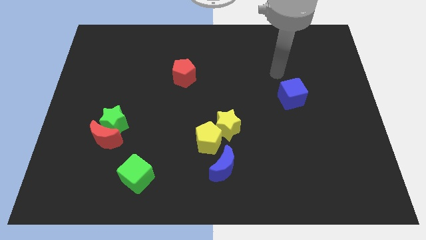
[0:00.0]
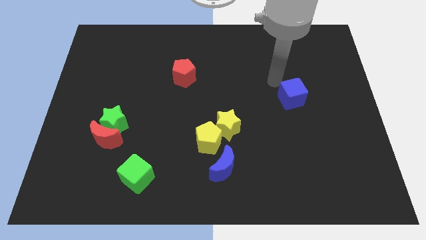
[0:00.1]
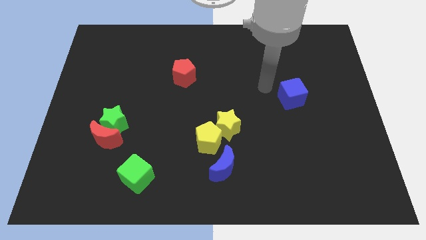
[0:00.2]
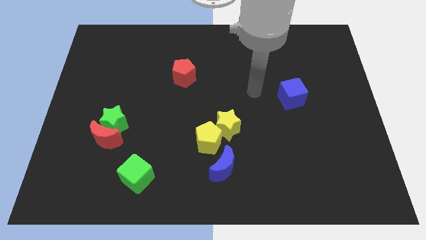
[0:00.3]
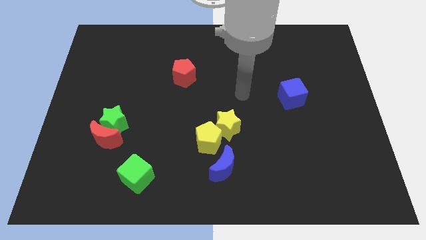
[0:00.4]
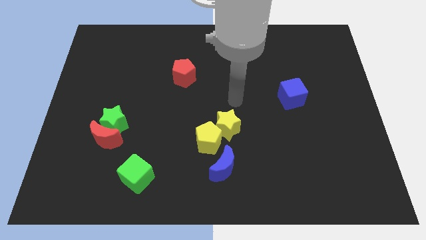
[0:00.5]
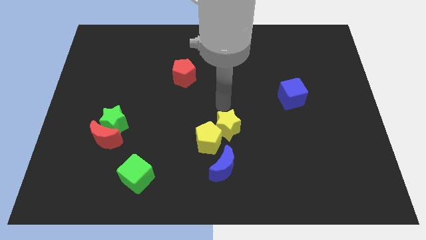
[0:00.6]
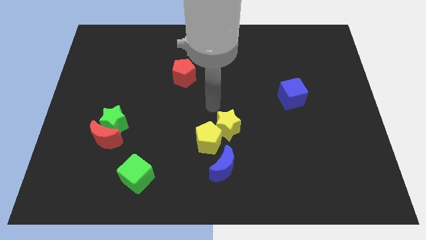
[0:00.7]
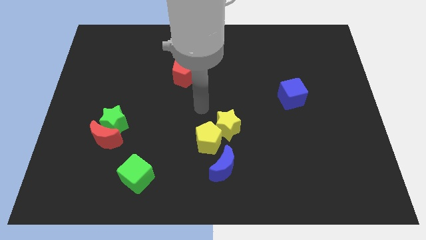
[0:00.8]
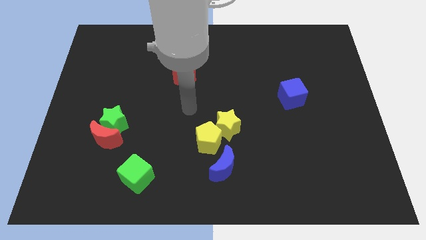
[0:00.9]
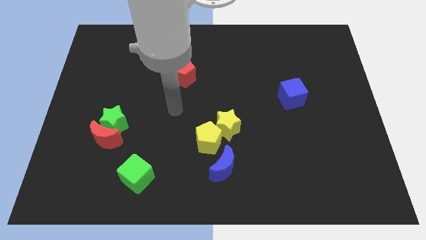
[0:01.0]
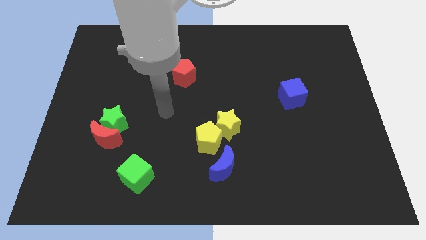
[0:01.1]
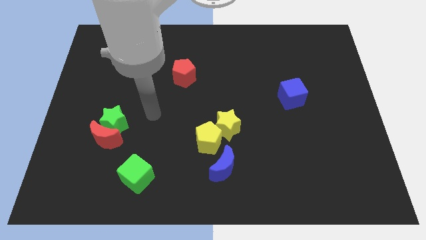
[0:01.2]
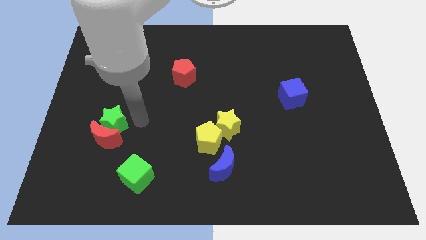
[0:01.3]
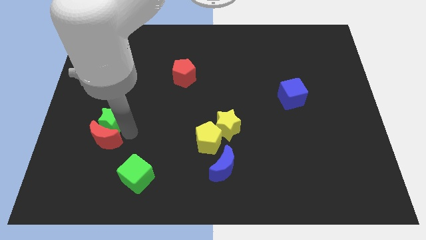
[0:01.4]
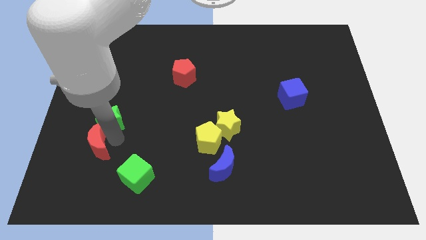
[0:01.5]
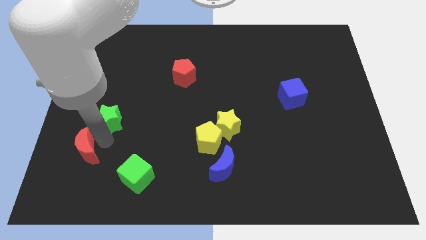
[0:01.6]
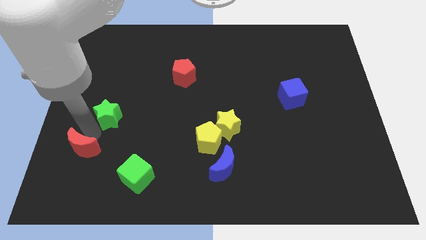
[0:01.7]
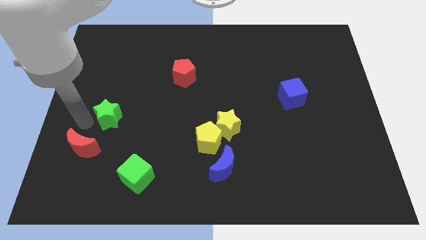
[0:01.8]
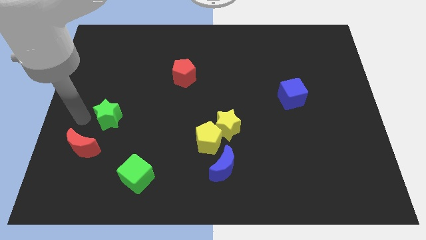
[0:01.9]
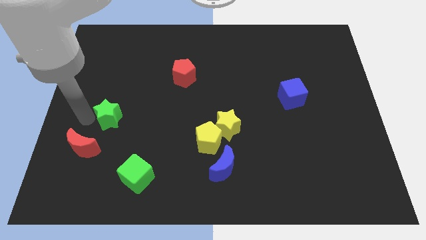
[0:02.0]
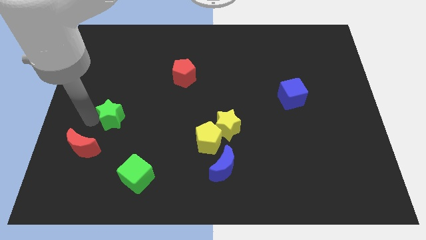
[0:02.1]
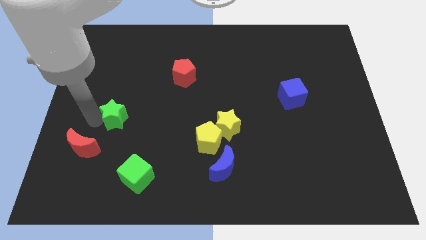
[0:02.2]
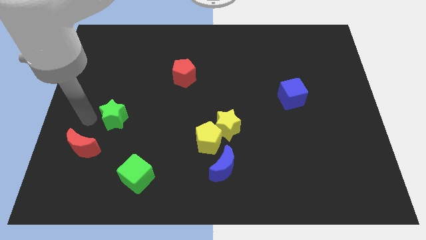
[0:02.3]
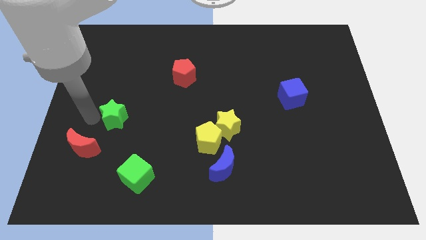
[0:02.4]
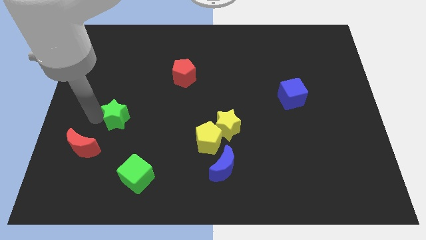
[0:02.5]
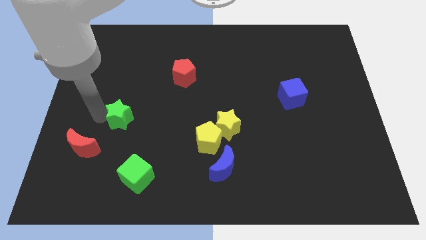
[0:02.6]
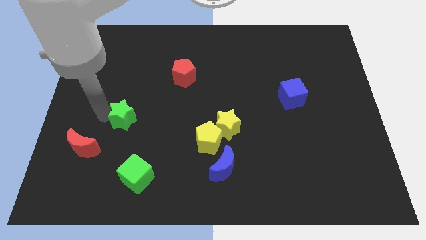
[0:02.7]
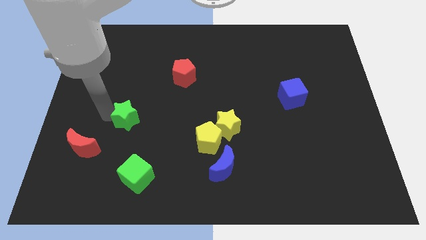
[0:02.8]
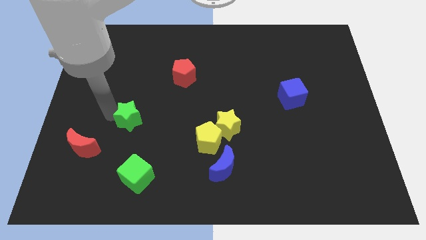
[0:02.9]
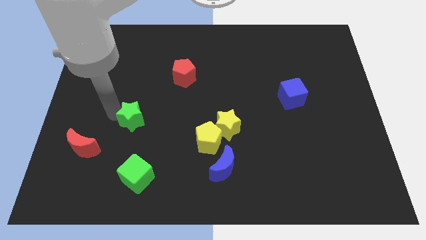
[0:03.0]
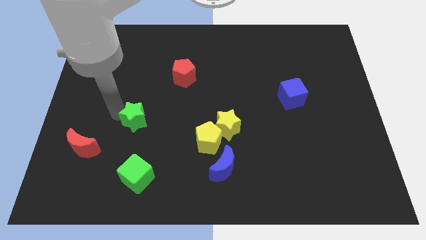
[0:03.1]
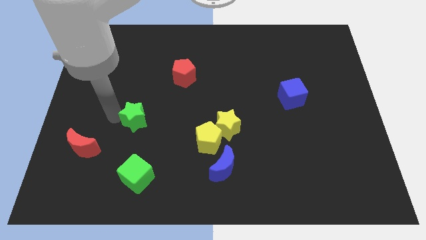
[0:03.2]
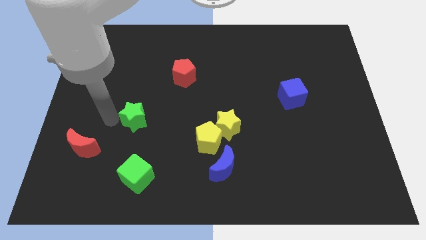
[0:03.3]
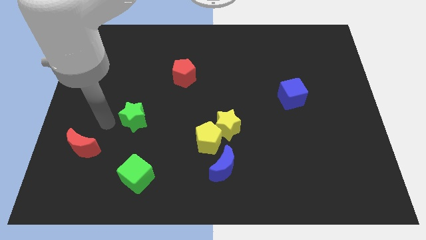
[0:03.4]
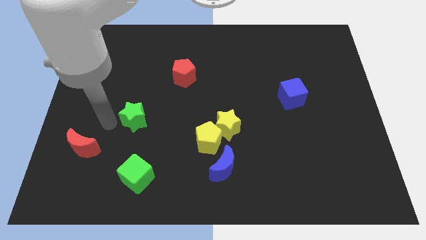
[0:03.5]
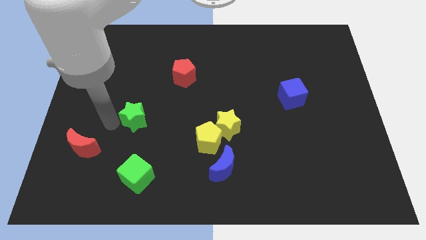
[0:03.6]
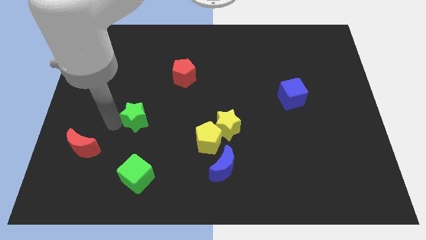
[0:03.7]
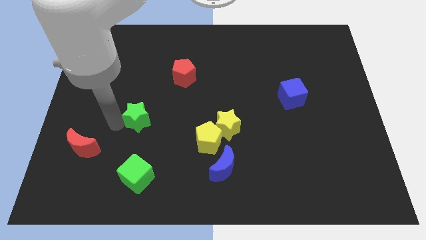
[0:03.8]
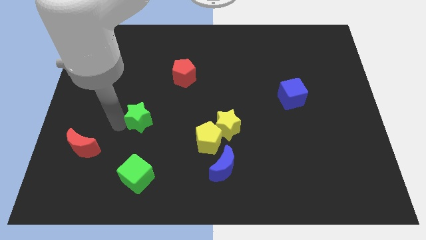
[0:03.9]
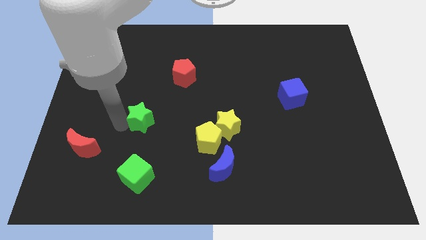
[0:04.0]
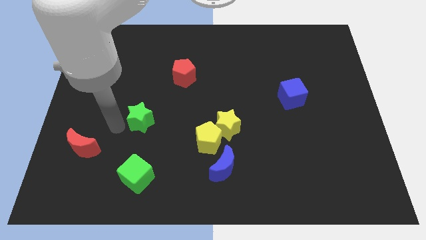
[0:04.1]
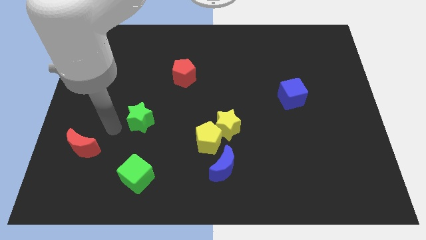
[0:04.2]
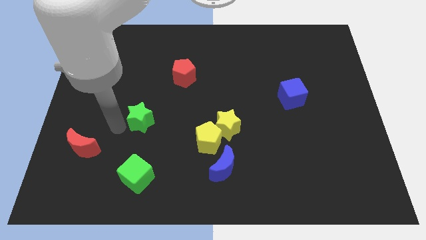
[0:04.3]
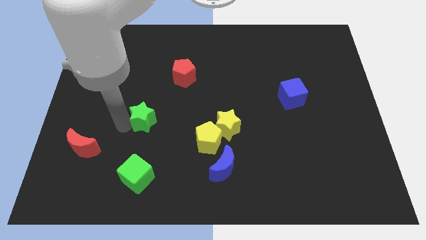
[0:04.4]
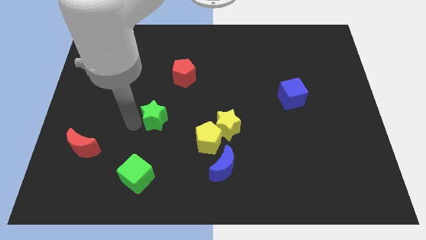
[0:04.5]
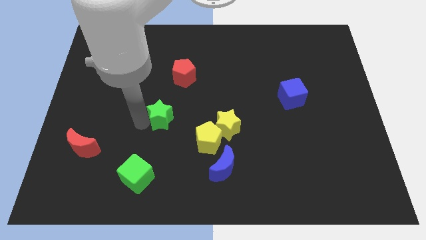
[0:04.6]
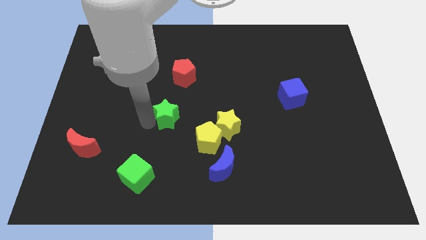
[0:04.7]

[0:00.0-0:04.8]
move the green star to the center of the board

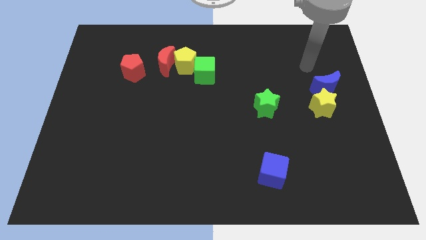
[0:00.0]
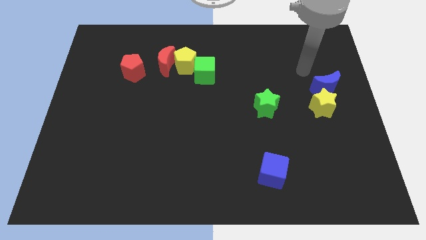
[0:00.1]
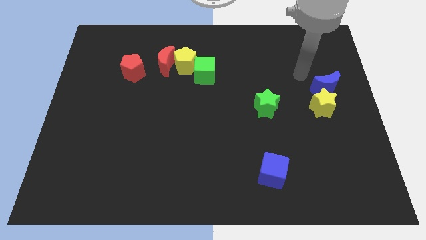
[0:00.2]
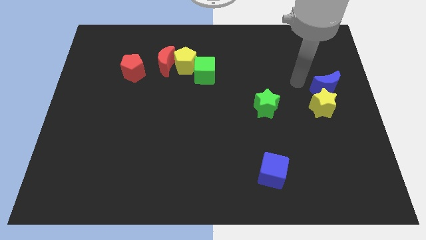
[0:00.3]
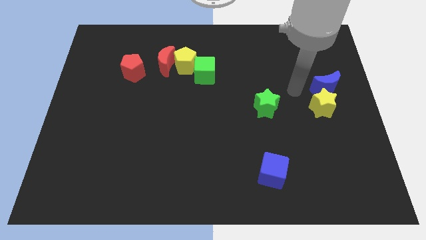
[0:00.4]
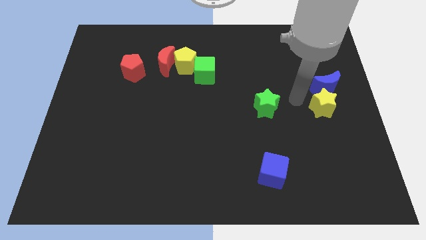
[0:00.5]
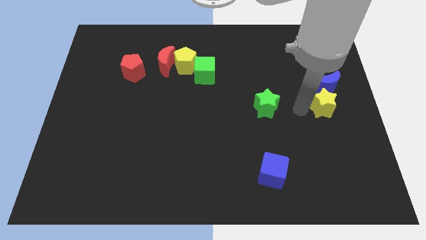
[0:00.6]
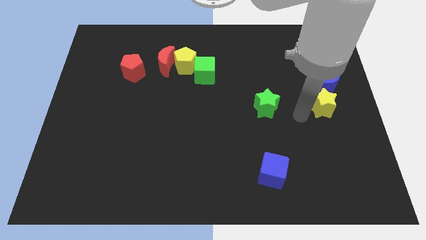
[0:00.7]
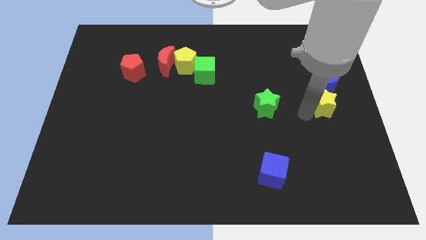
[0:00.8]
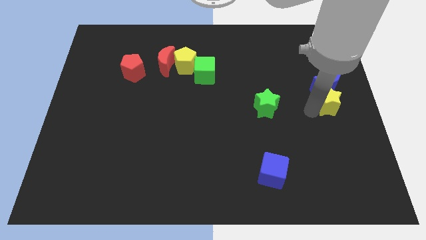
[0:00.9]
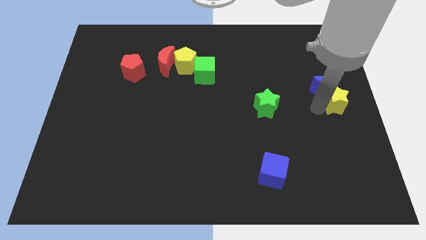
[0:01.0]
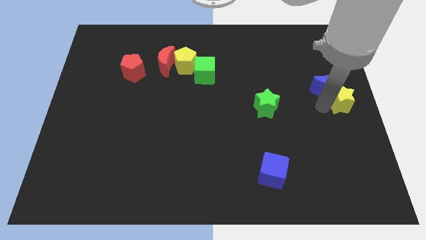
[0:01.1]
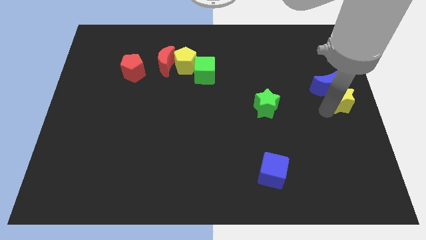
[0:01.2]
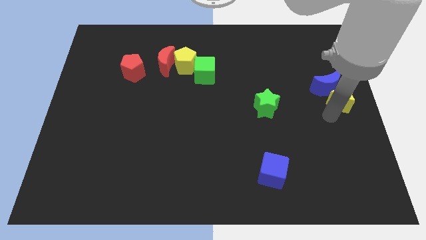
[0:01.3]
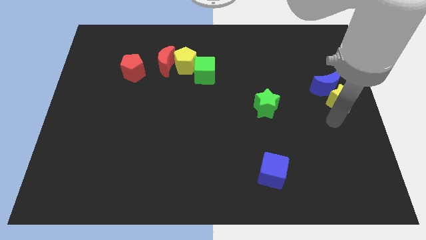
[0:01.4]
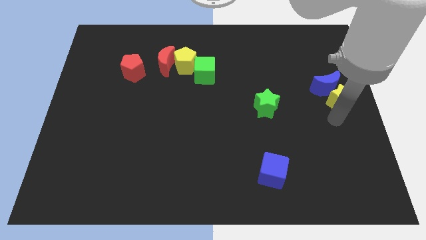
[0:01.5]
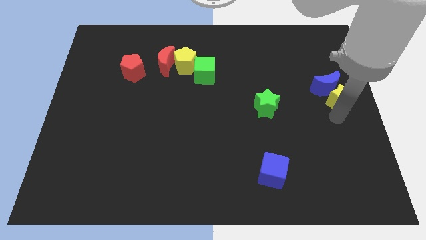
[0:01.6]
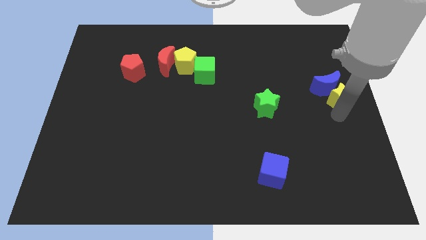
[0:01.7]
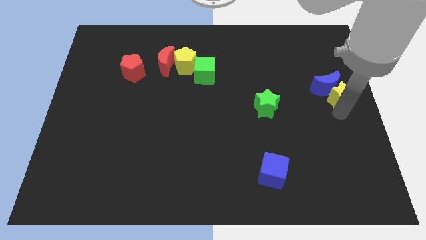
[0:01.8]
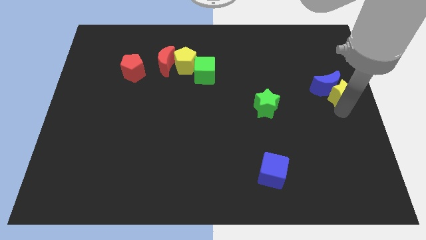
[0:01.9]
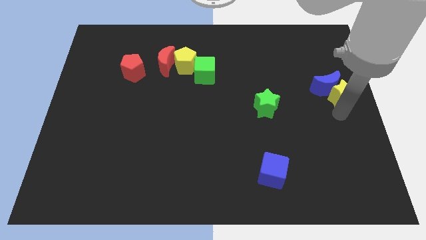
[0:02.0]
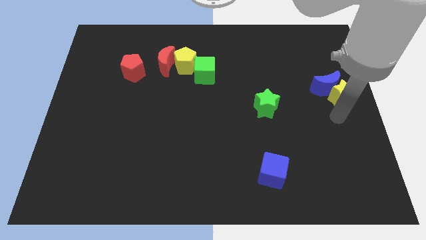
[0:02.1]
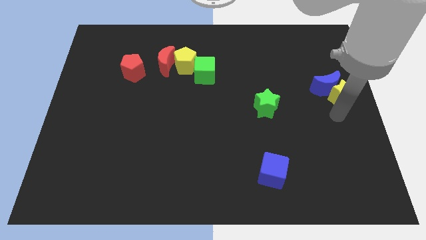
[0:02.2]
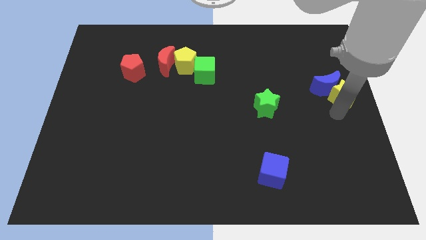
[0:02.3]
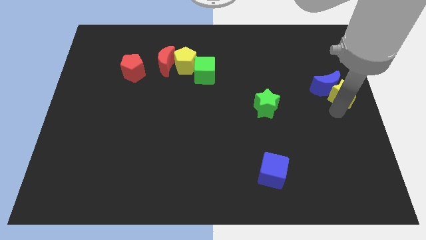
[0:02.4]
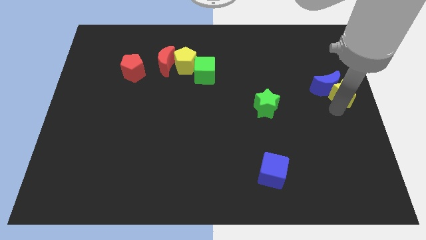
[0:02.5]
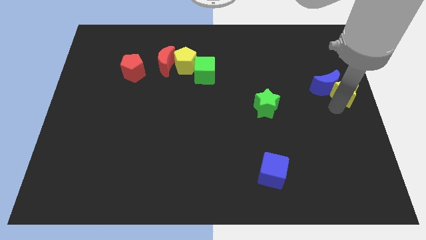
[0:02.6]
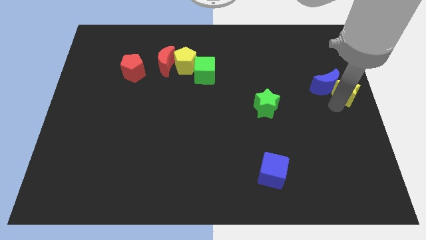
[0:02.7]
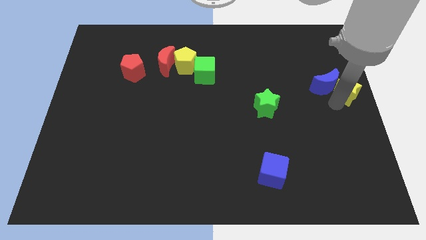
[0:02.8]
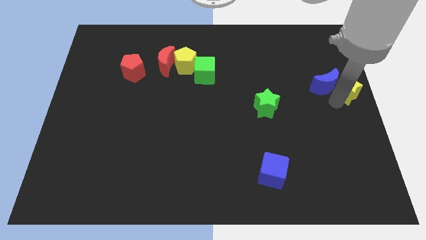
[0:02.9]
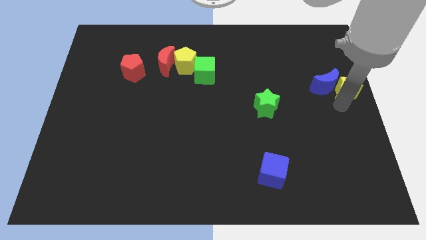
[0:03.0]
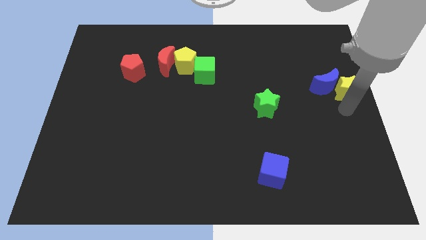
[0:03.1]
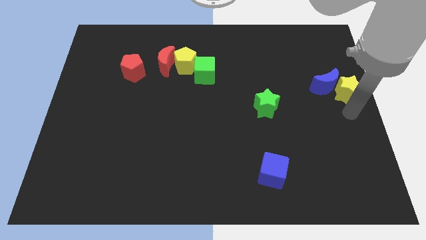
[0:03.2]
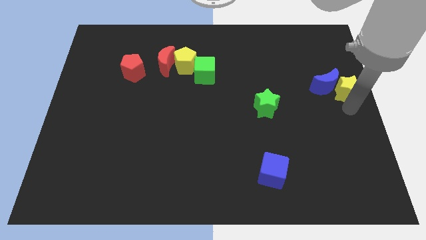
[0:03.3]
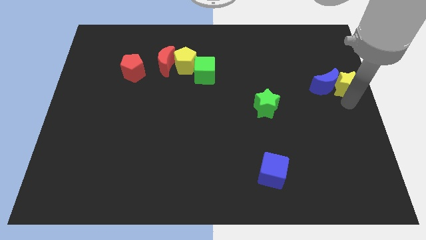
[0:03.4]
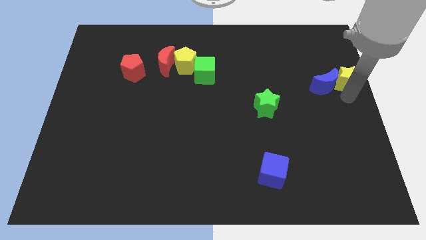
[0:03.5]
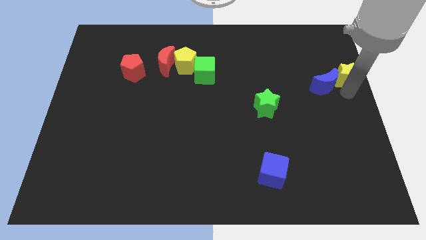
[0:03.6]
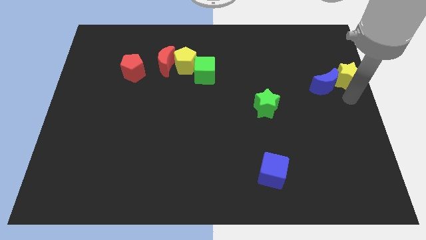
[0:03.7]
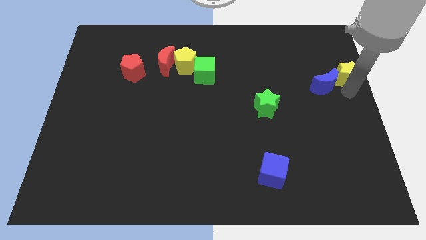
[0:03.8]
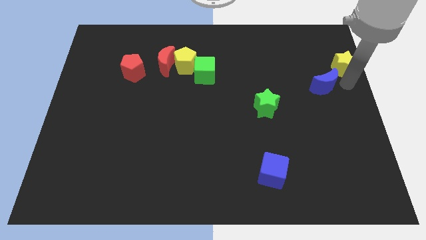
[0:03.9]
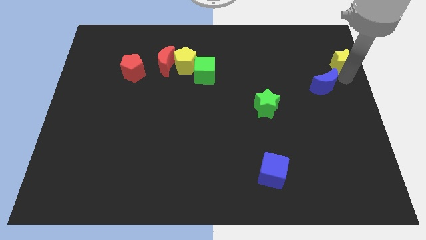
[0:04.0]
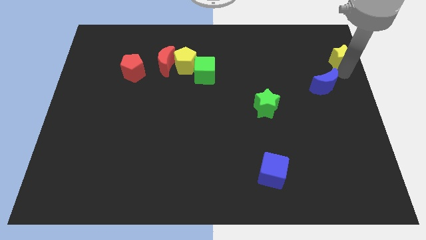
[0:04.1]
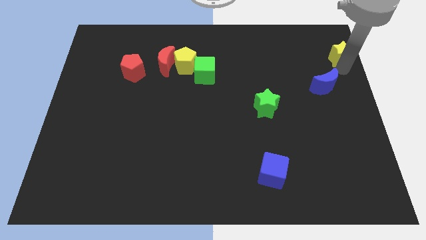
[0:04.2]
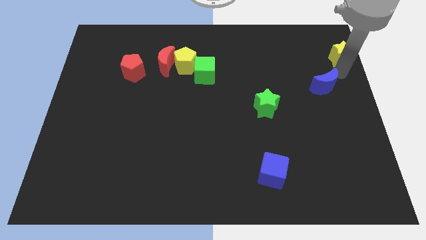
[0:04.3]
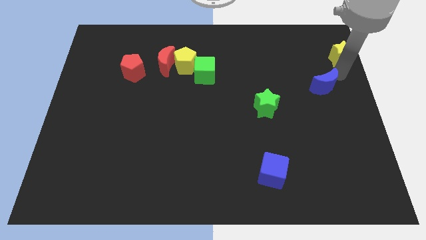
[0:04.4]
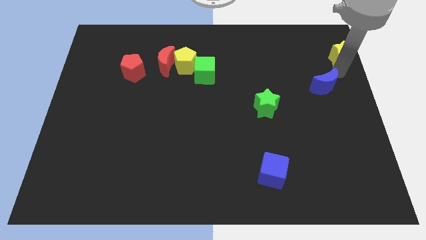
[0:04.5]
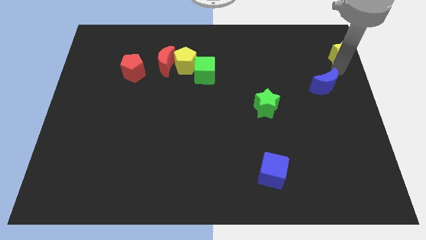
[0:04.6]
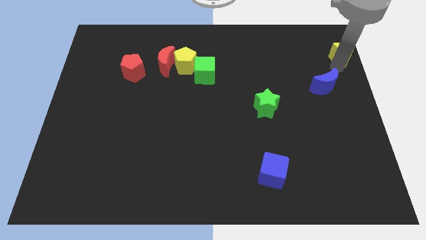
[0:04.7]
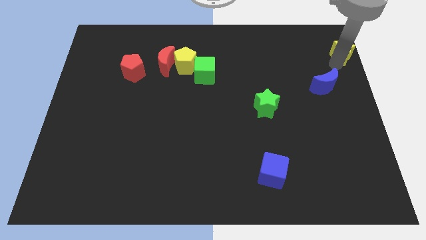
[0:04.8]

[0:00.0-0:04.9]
slide the yellow star to the top right of the board
